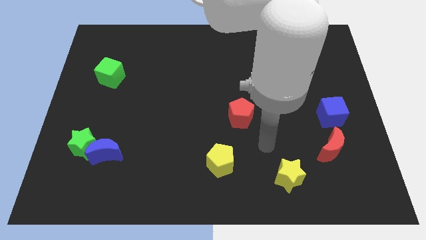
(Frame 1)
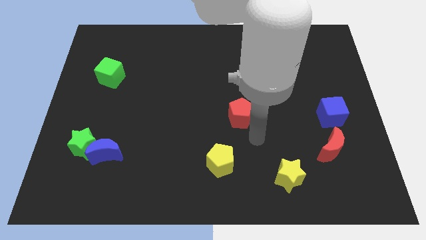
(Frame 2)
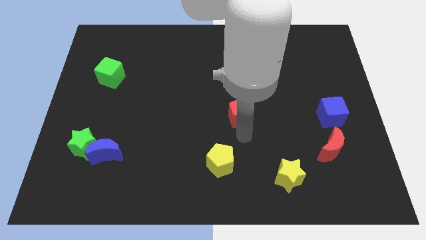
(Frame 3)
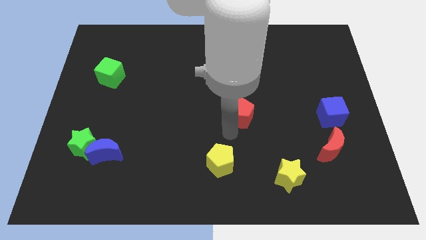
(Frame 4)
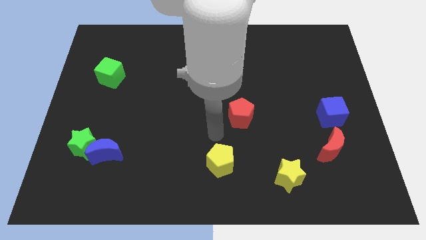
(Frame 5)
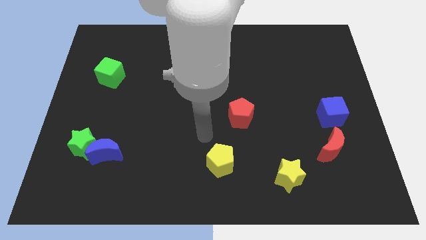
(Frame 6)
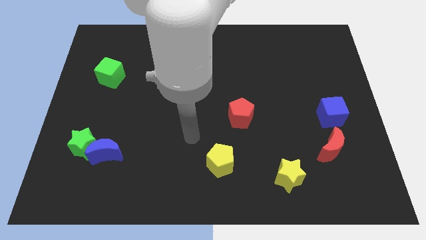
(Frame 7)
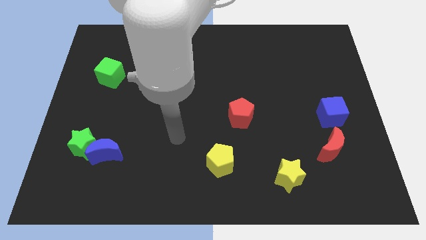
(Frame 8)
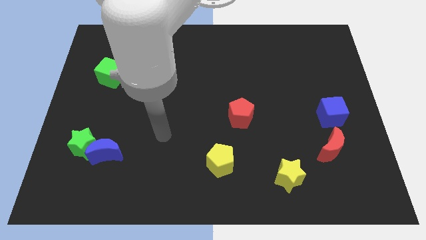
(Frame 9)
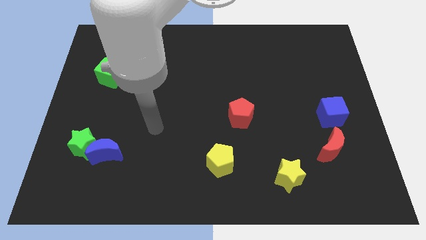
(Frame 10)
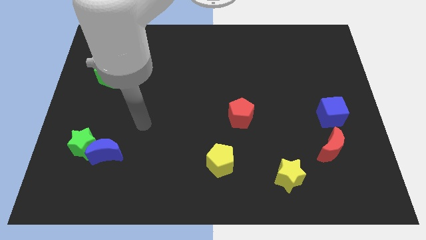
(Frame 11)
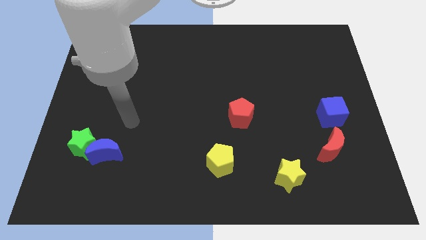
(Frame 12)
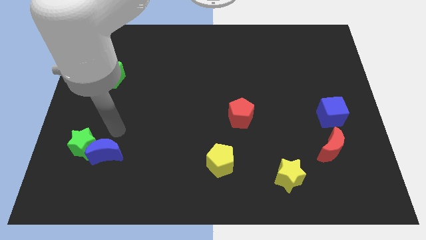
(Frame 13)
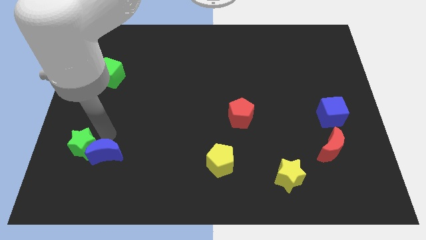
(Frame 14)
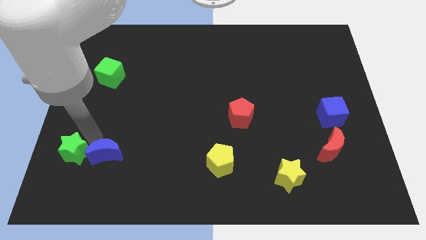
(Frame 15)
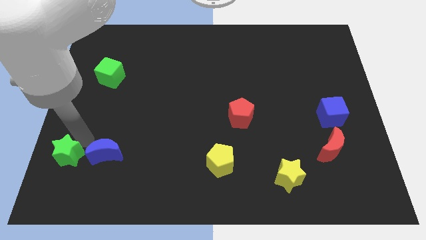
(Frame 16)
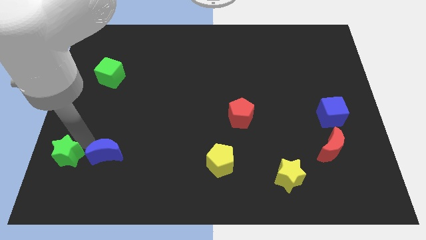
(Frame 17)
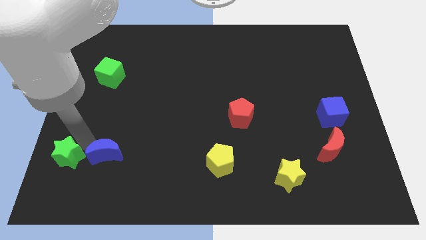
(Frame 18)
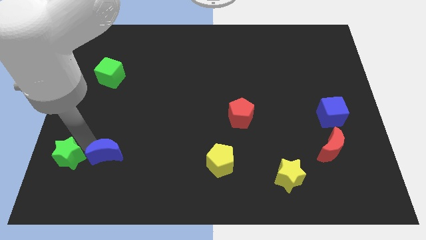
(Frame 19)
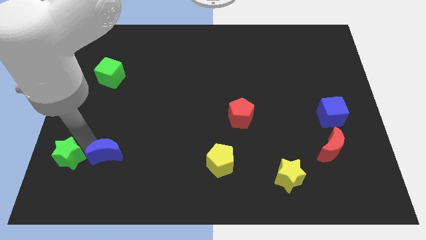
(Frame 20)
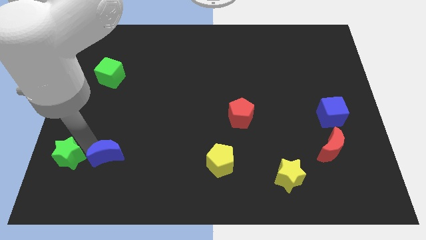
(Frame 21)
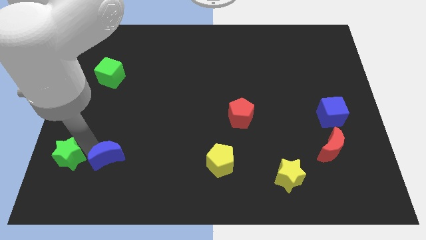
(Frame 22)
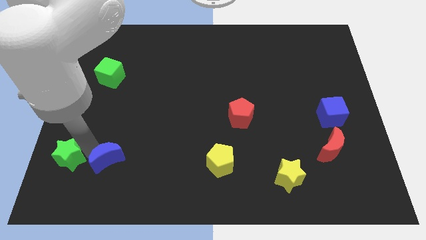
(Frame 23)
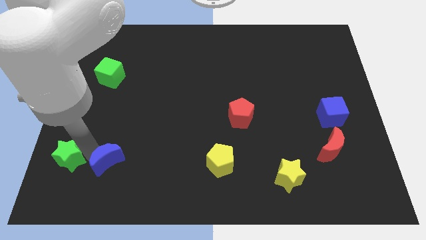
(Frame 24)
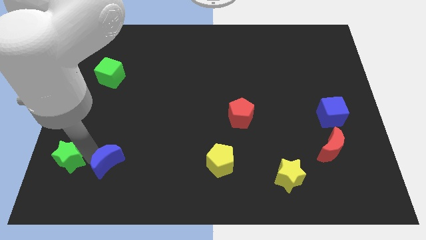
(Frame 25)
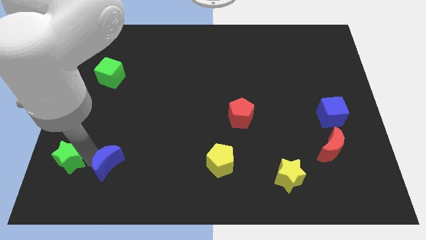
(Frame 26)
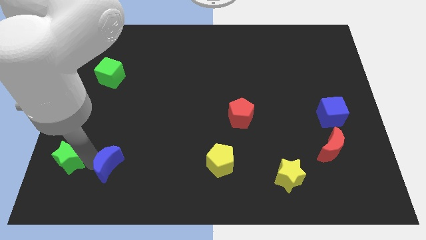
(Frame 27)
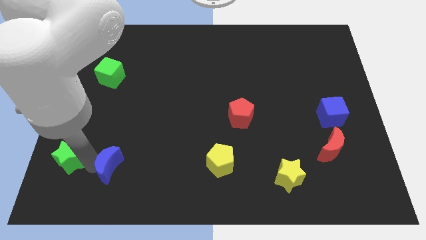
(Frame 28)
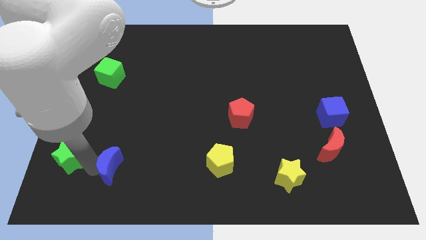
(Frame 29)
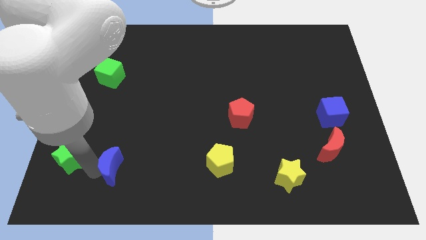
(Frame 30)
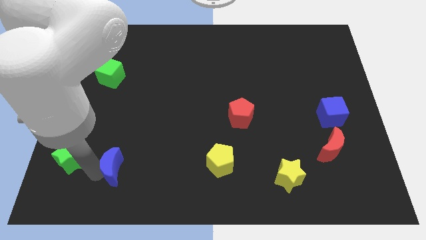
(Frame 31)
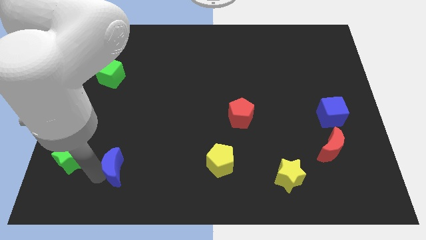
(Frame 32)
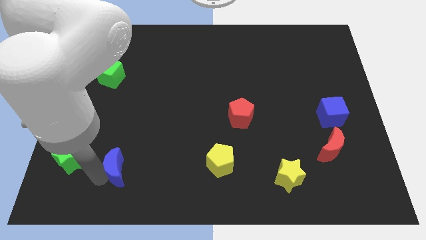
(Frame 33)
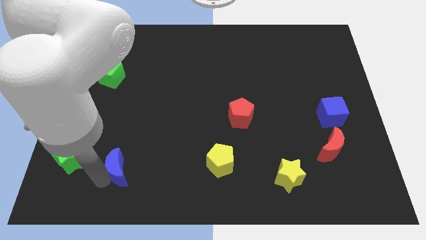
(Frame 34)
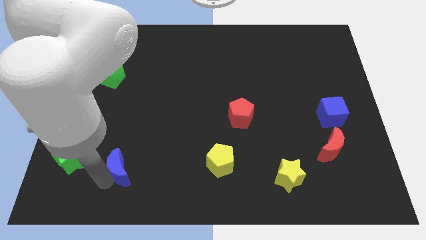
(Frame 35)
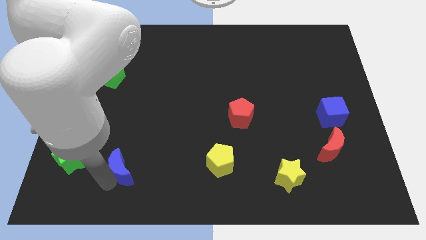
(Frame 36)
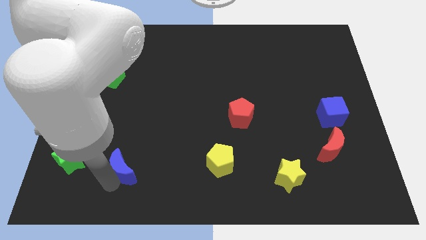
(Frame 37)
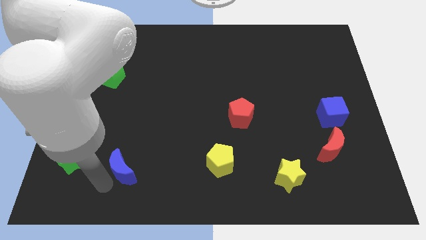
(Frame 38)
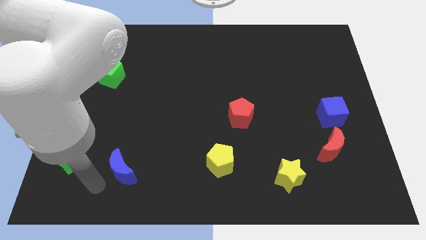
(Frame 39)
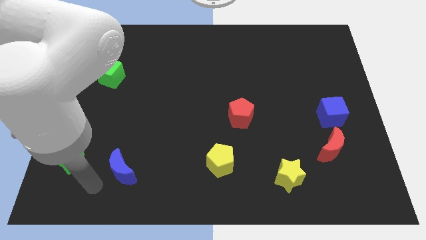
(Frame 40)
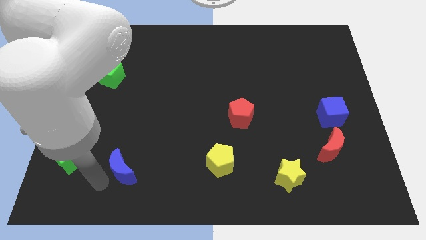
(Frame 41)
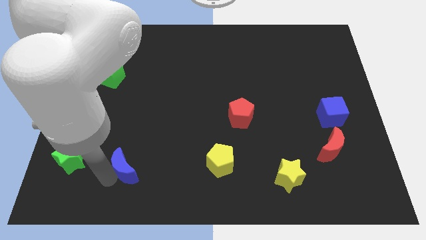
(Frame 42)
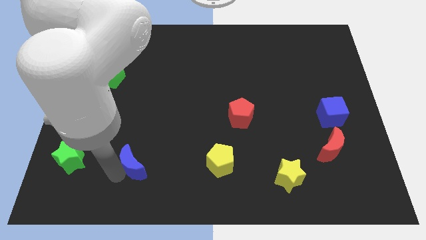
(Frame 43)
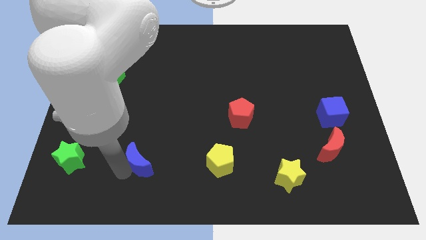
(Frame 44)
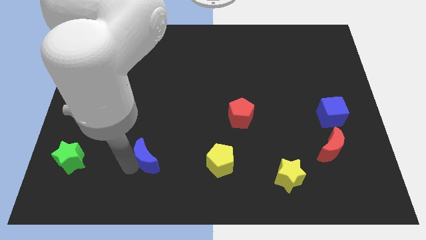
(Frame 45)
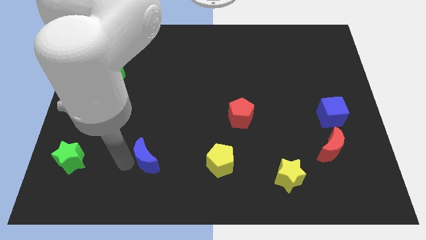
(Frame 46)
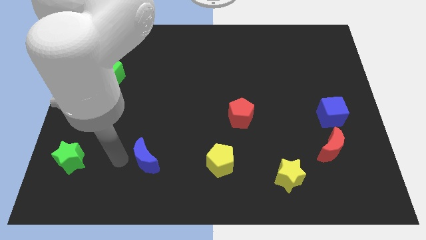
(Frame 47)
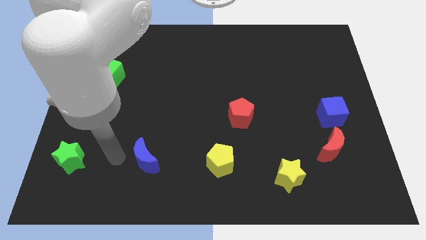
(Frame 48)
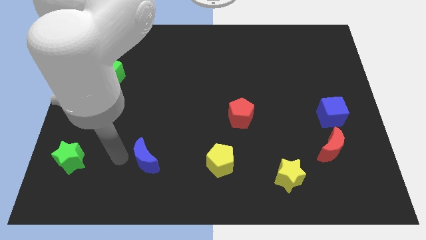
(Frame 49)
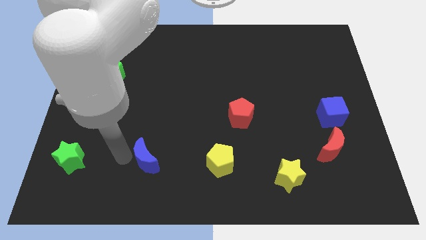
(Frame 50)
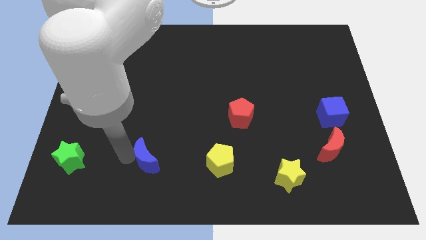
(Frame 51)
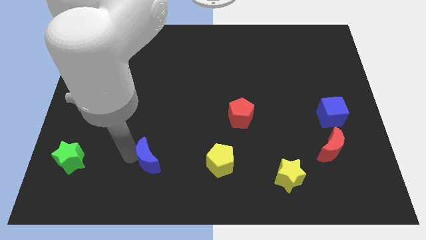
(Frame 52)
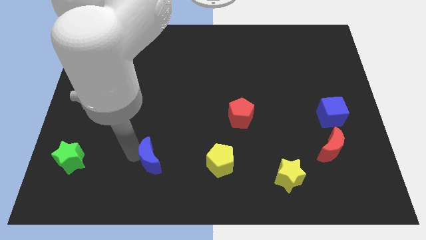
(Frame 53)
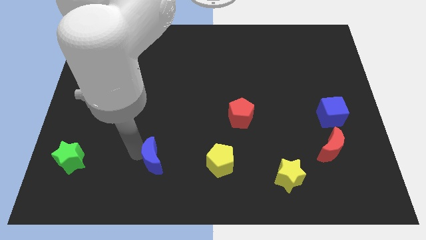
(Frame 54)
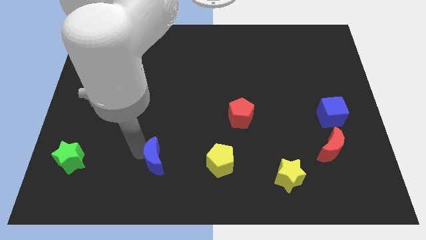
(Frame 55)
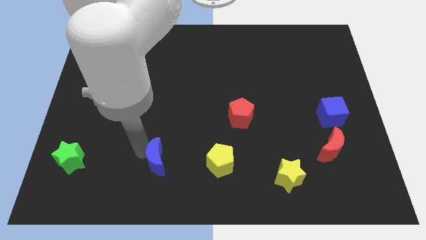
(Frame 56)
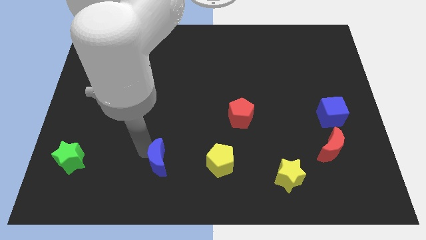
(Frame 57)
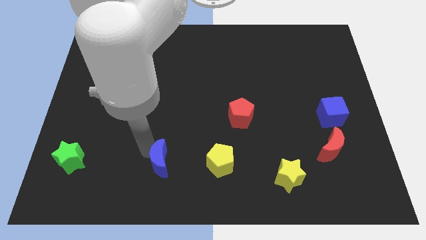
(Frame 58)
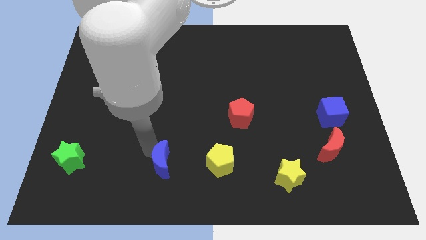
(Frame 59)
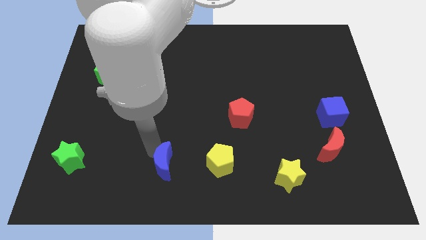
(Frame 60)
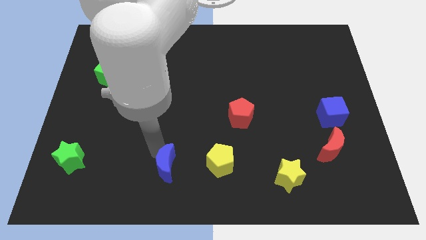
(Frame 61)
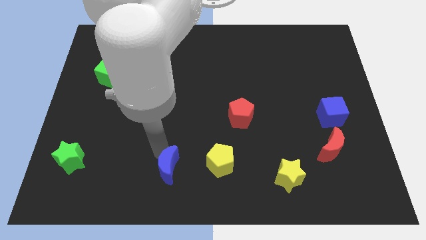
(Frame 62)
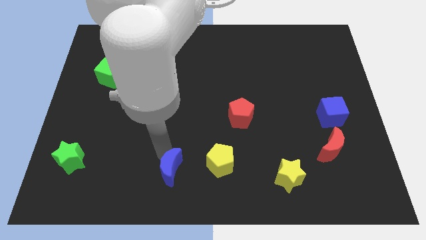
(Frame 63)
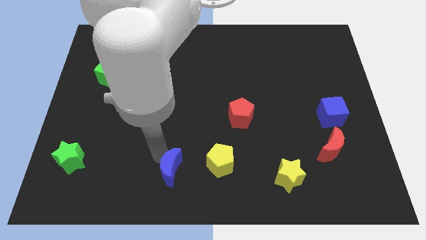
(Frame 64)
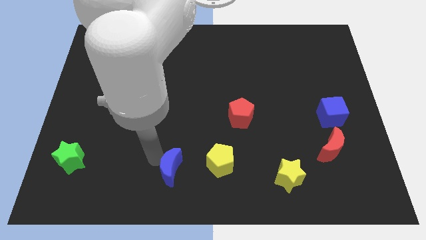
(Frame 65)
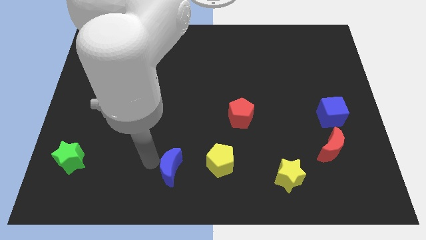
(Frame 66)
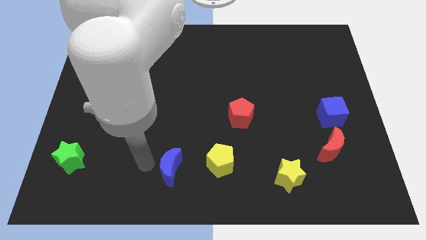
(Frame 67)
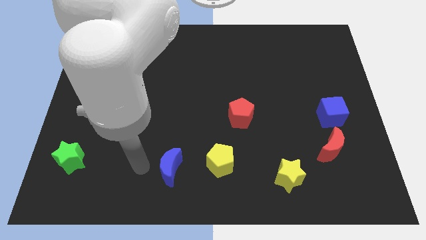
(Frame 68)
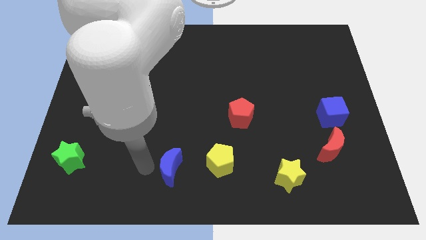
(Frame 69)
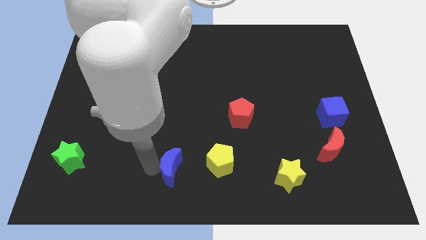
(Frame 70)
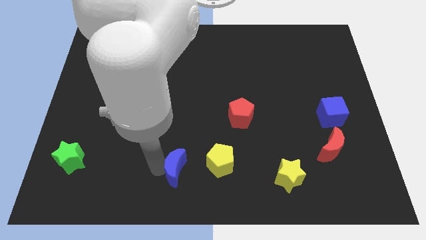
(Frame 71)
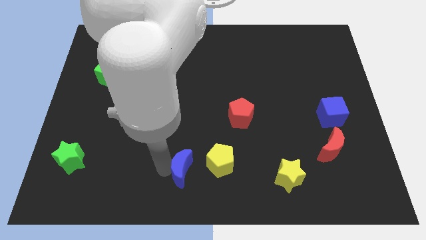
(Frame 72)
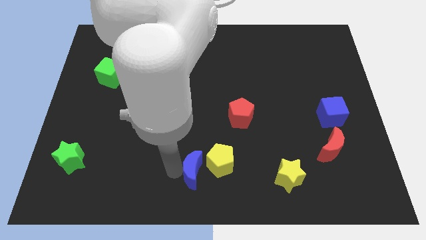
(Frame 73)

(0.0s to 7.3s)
push the blue moon next to the yellow pentagon
